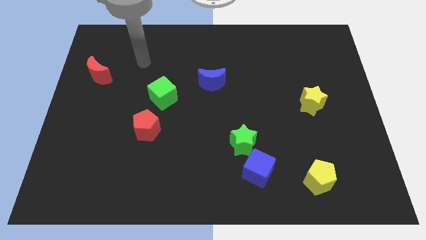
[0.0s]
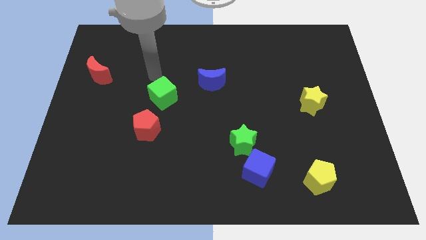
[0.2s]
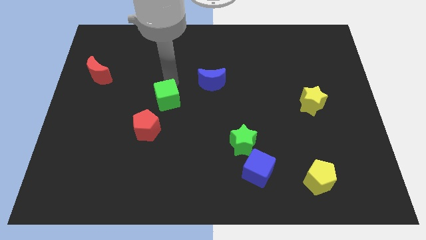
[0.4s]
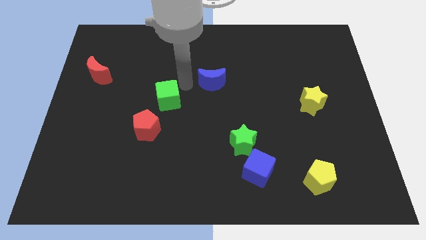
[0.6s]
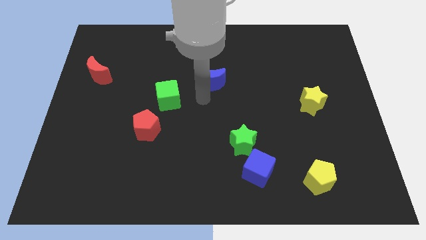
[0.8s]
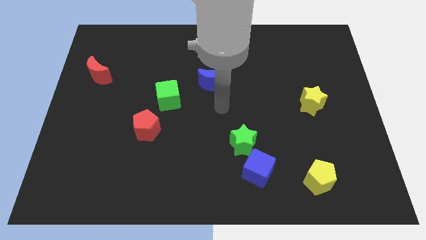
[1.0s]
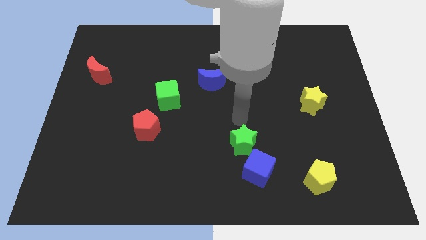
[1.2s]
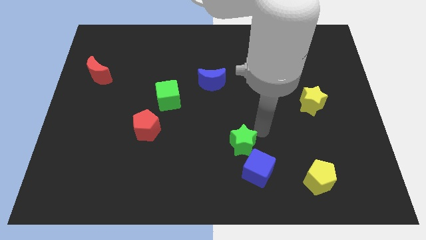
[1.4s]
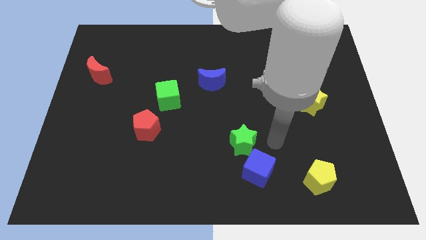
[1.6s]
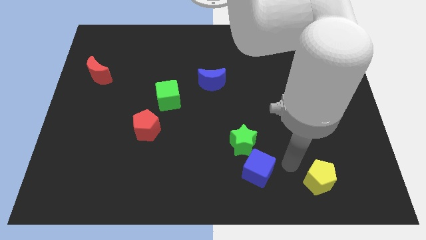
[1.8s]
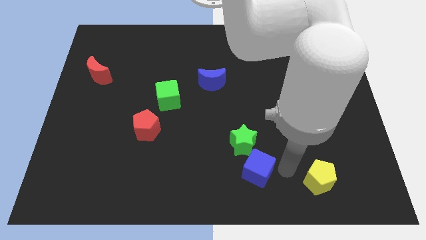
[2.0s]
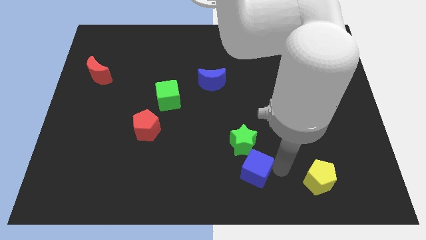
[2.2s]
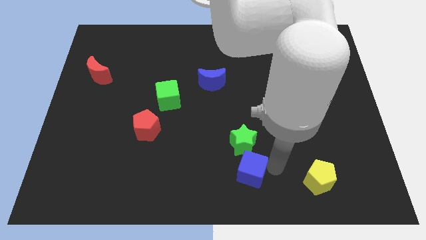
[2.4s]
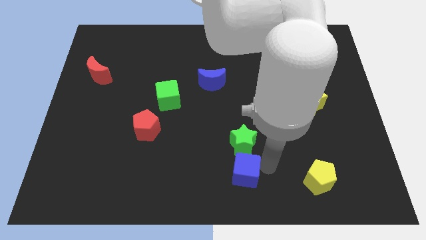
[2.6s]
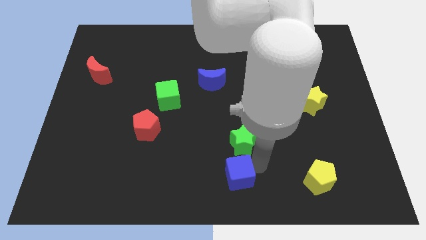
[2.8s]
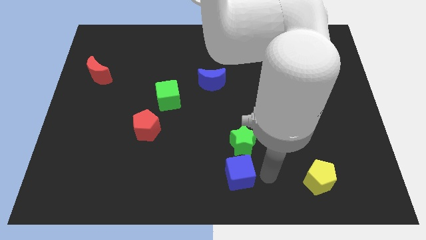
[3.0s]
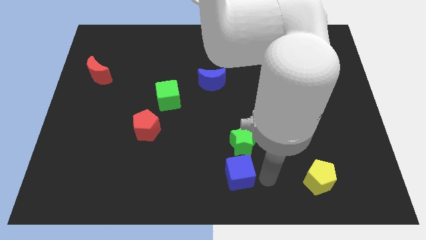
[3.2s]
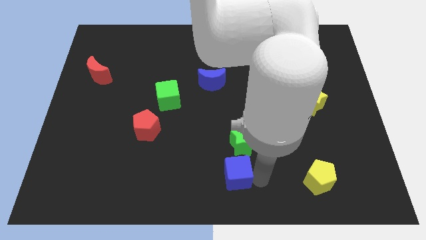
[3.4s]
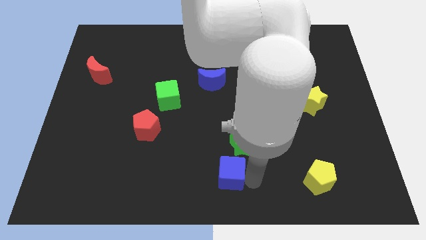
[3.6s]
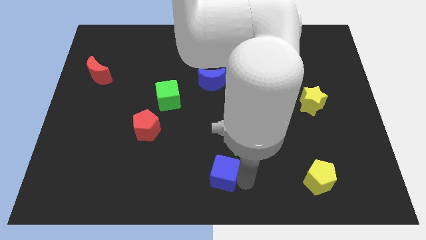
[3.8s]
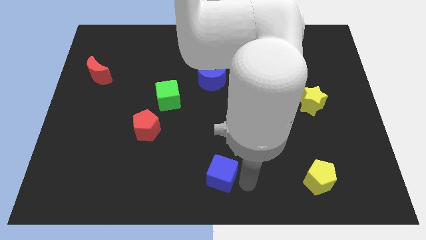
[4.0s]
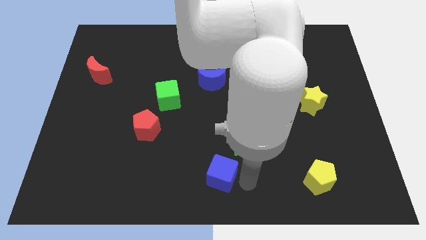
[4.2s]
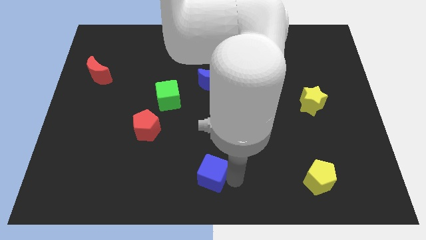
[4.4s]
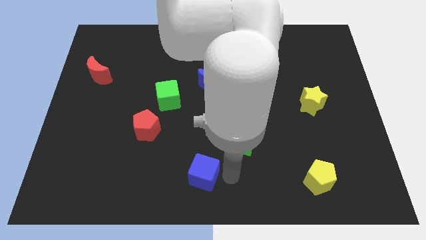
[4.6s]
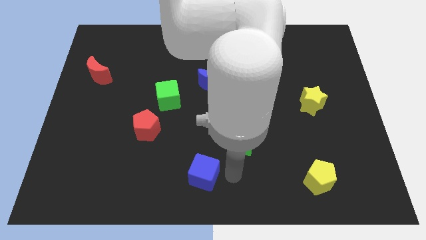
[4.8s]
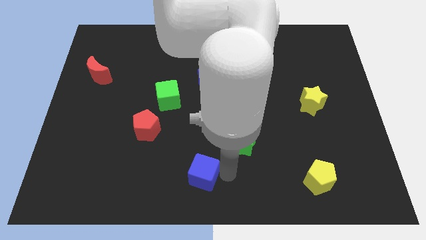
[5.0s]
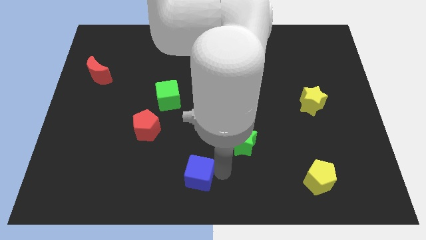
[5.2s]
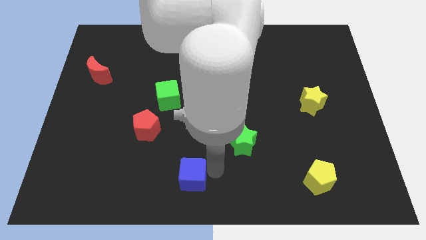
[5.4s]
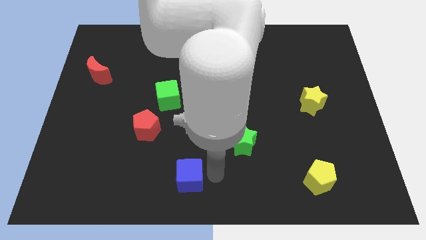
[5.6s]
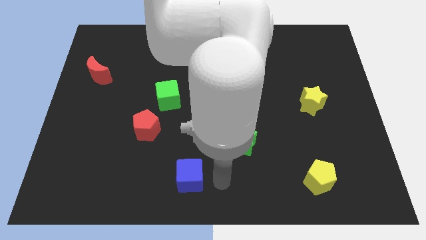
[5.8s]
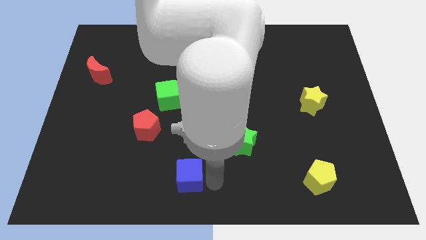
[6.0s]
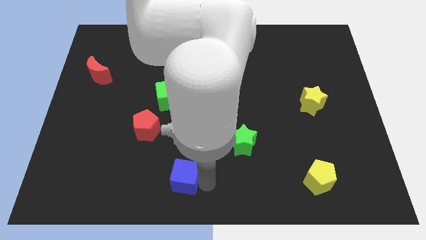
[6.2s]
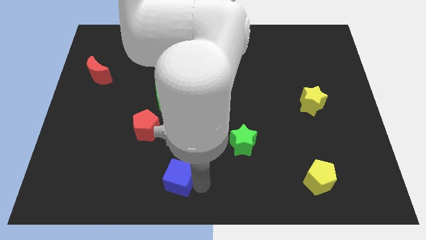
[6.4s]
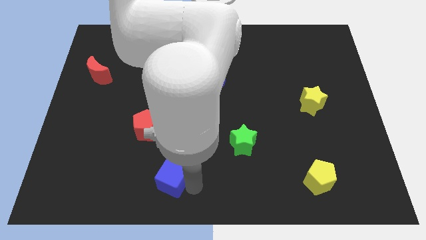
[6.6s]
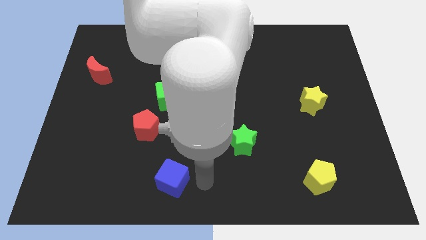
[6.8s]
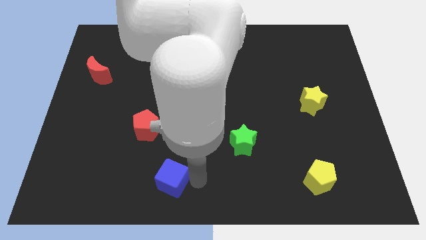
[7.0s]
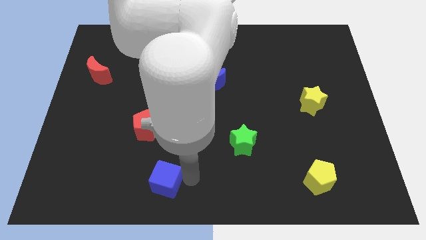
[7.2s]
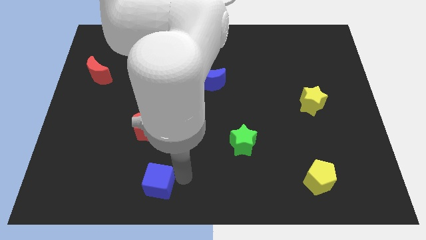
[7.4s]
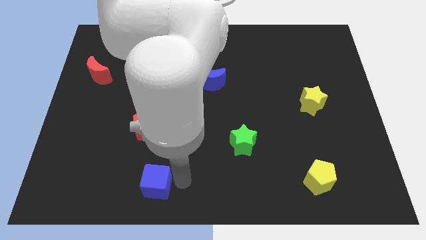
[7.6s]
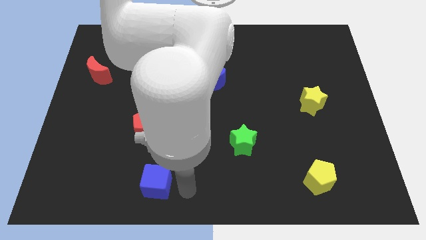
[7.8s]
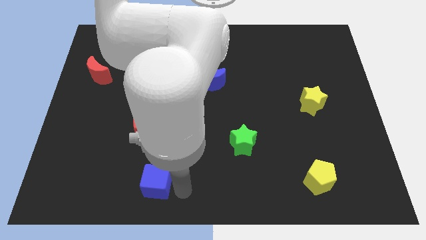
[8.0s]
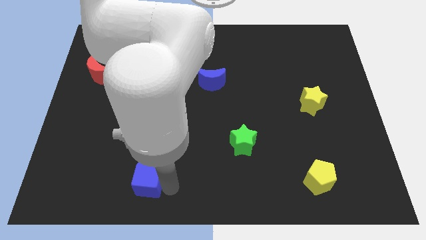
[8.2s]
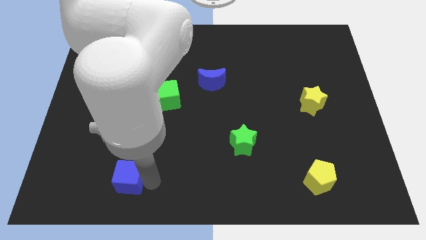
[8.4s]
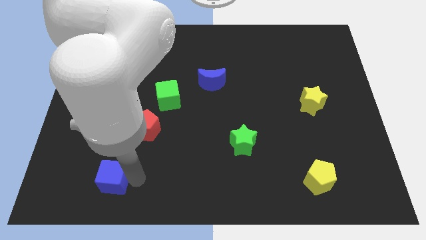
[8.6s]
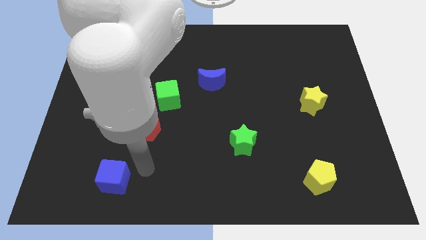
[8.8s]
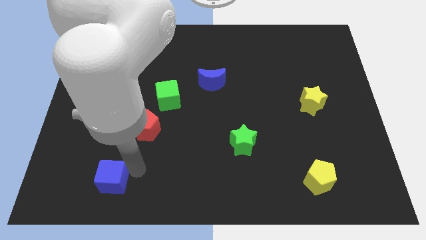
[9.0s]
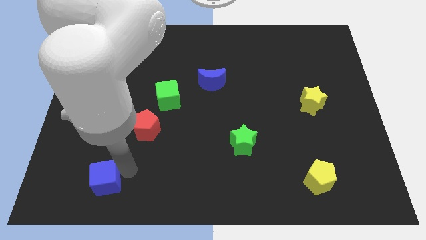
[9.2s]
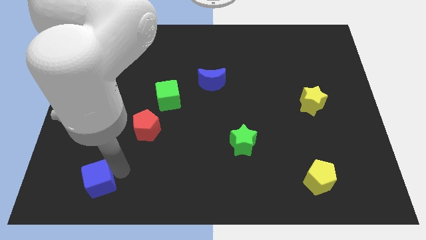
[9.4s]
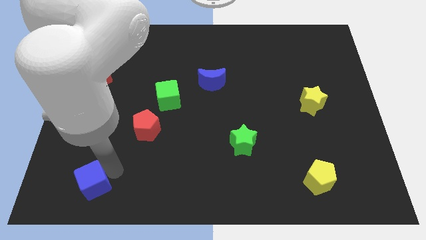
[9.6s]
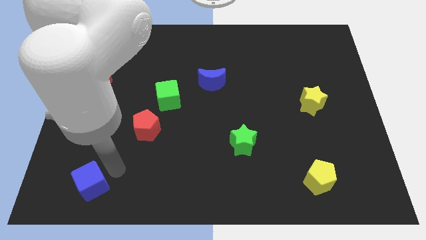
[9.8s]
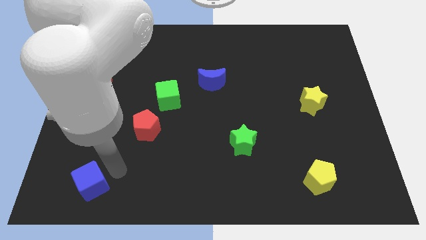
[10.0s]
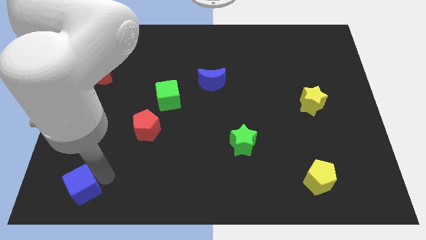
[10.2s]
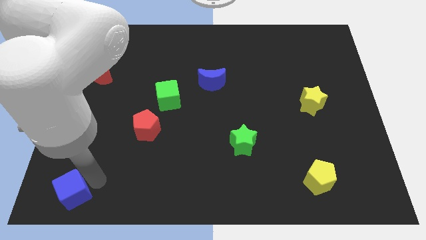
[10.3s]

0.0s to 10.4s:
put the blue cube to the bottom left

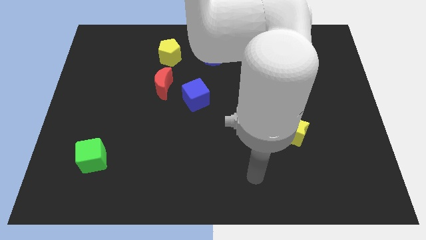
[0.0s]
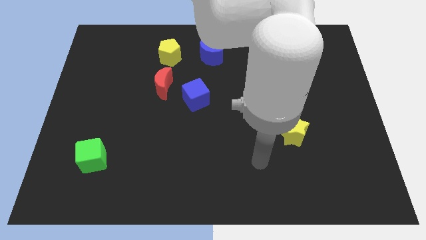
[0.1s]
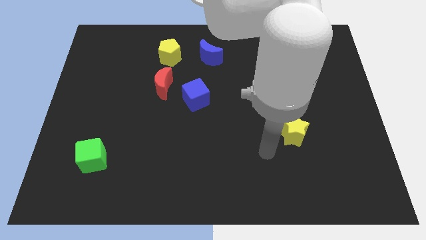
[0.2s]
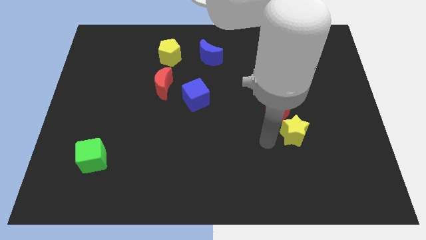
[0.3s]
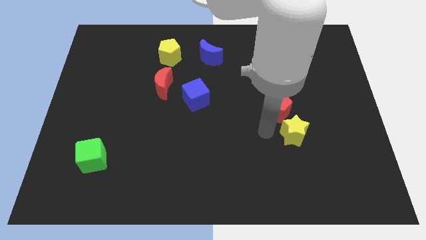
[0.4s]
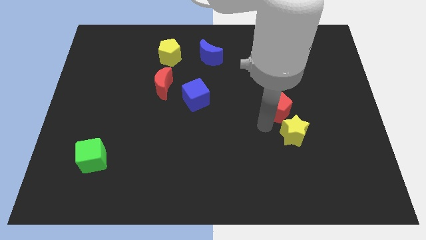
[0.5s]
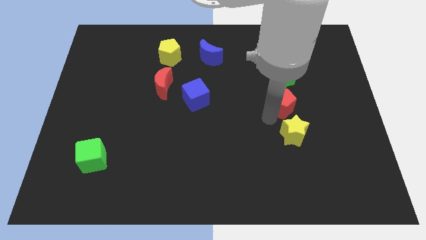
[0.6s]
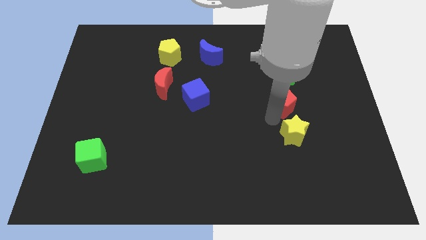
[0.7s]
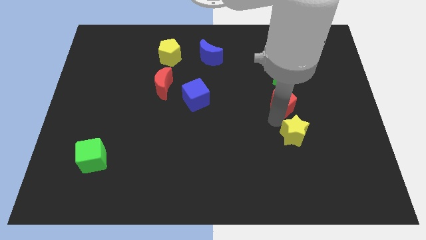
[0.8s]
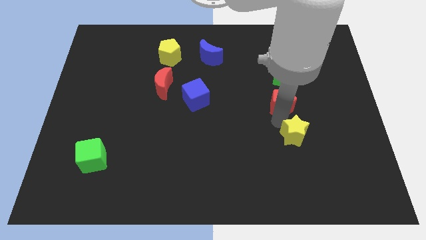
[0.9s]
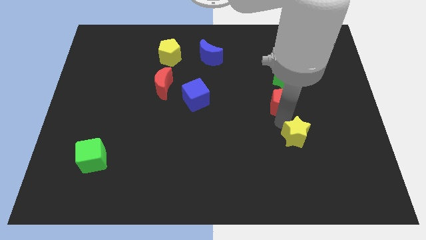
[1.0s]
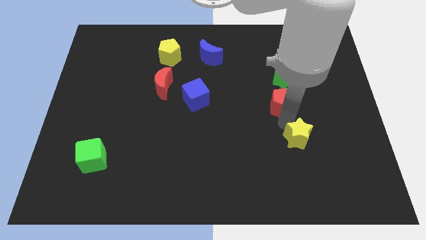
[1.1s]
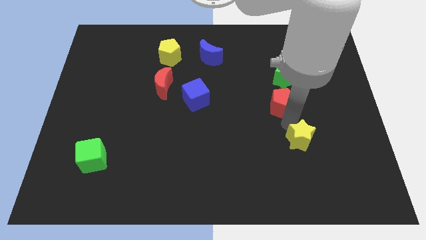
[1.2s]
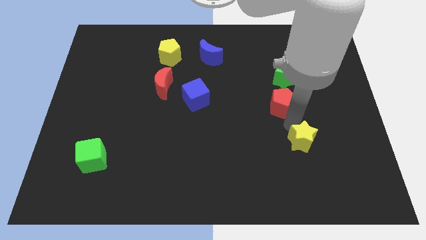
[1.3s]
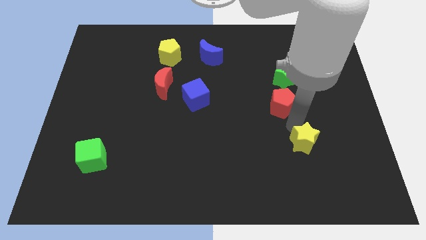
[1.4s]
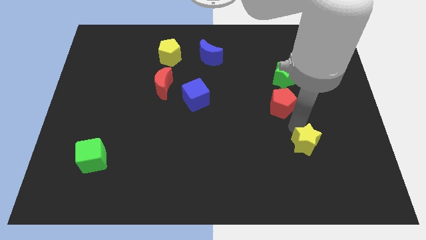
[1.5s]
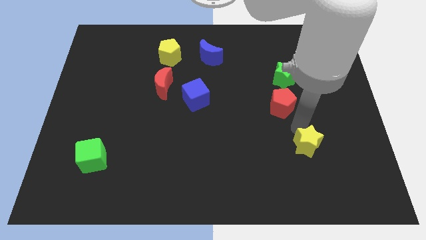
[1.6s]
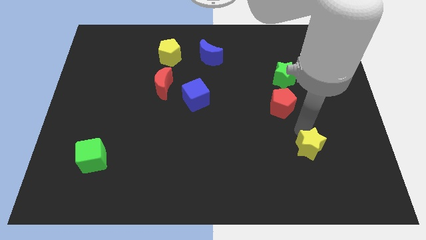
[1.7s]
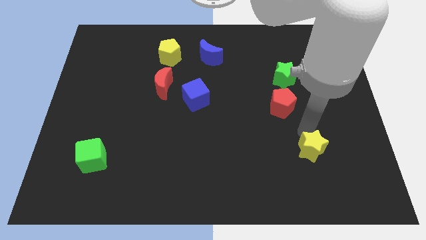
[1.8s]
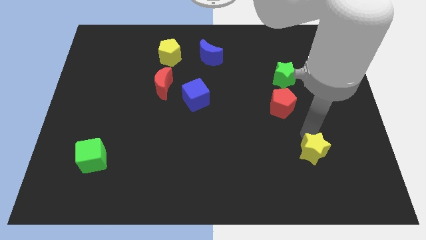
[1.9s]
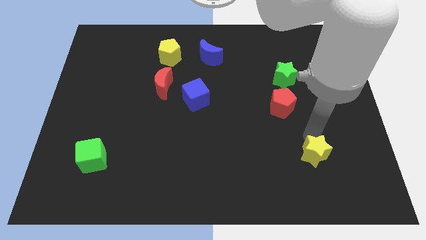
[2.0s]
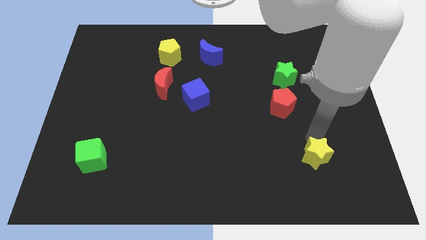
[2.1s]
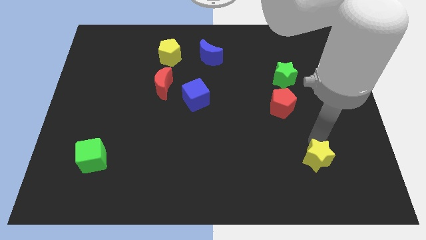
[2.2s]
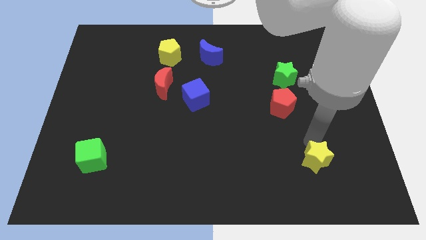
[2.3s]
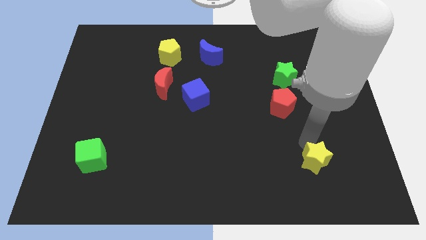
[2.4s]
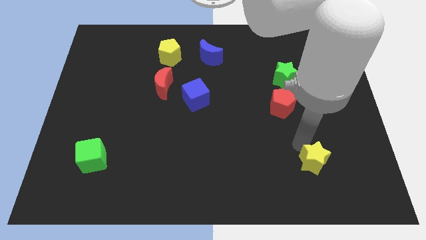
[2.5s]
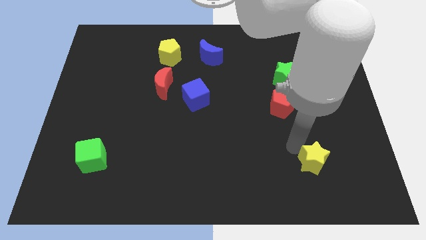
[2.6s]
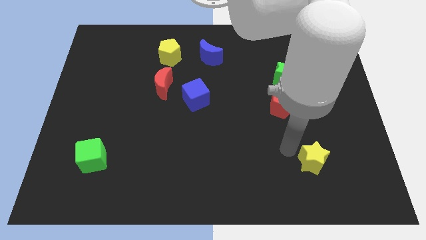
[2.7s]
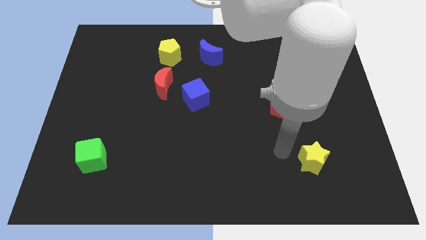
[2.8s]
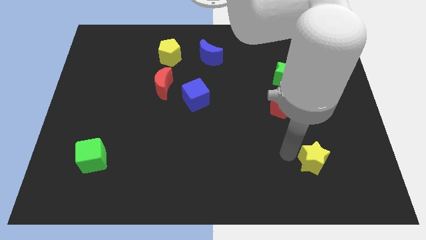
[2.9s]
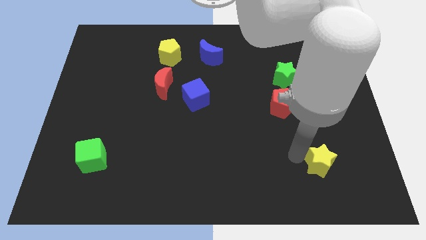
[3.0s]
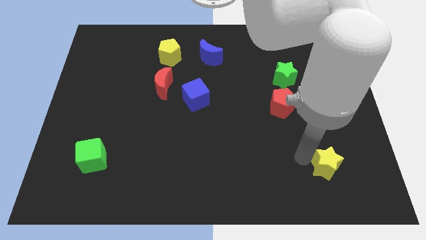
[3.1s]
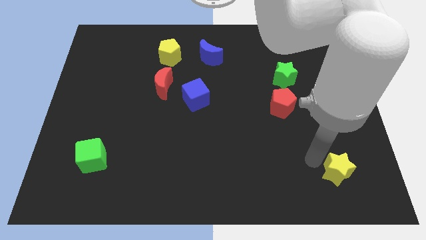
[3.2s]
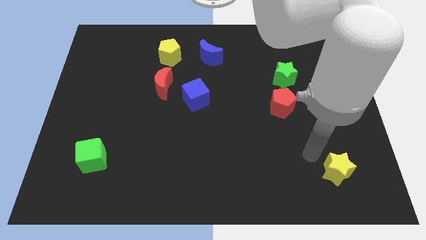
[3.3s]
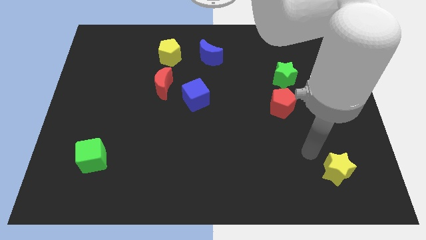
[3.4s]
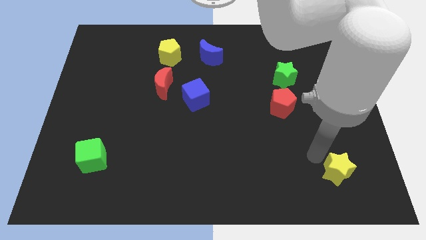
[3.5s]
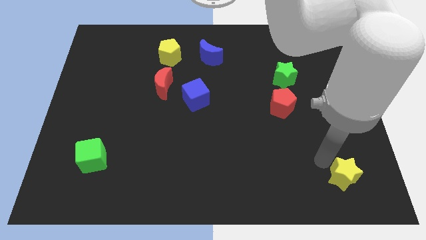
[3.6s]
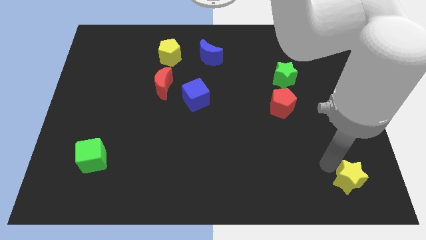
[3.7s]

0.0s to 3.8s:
move the yellow star to the bottom right of the board
